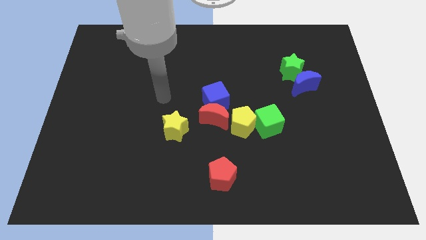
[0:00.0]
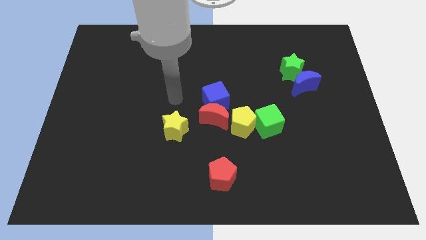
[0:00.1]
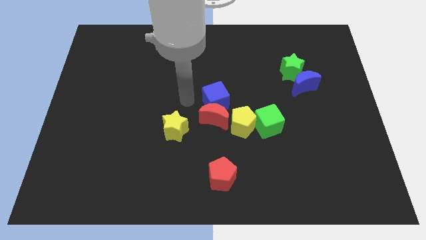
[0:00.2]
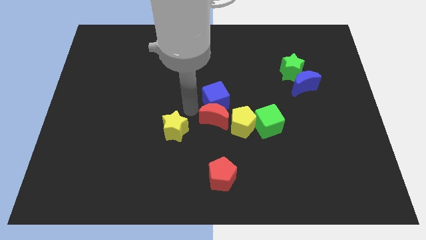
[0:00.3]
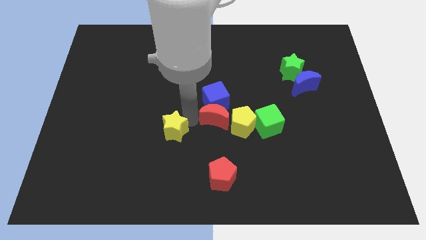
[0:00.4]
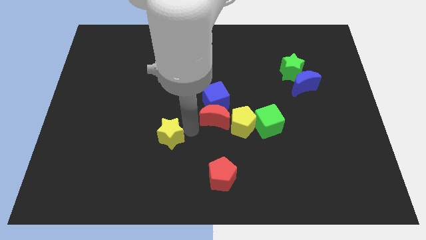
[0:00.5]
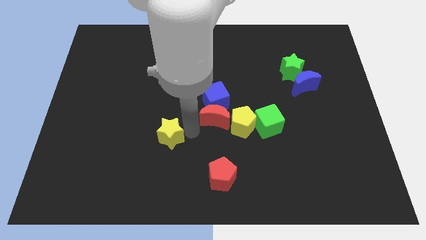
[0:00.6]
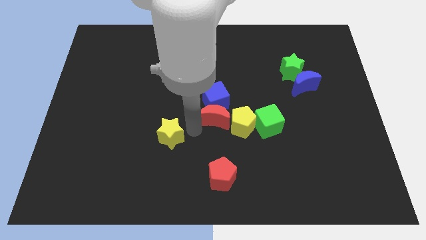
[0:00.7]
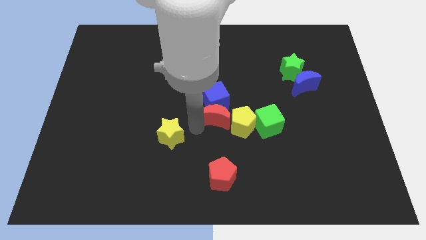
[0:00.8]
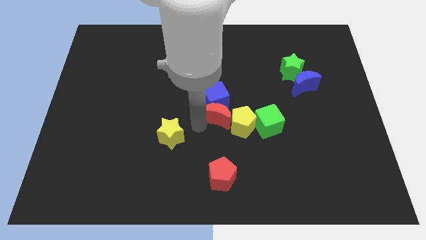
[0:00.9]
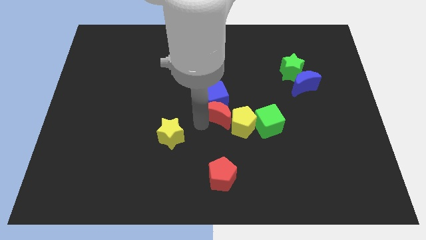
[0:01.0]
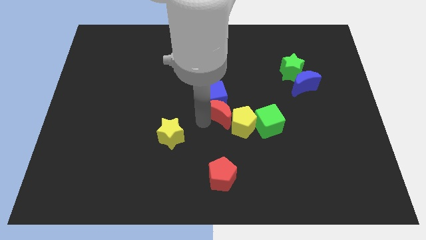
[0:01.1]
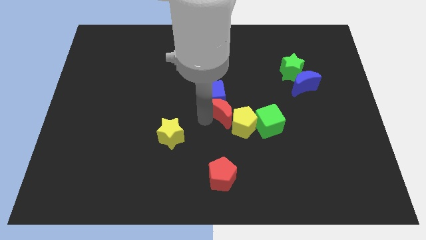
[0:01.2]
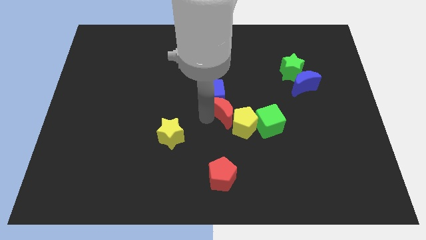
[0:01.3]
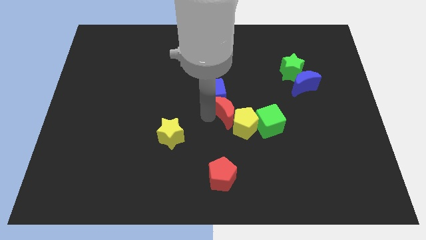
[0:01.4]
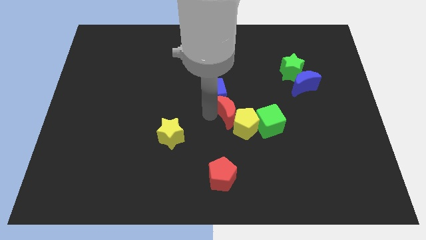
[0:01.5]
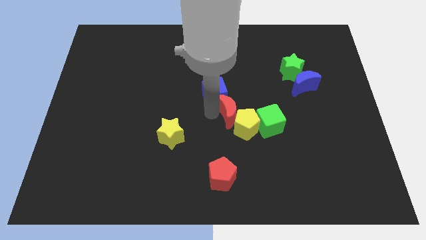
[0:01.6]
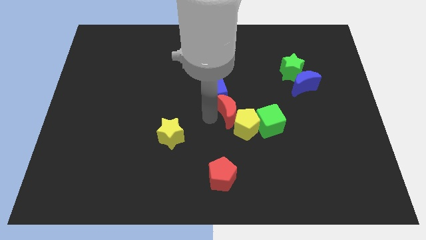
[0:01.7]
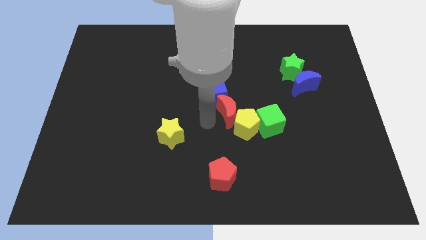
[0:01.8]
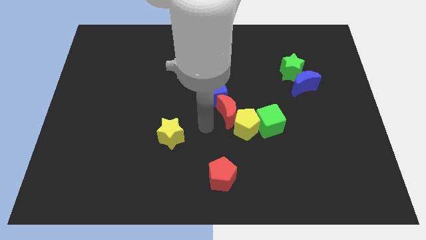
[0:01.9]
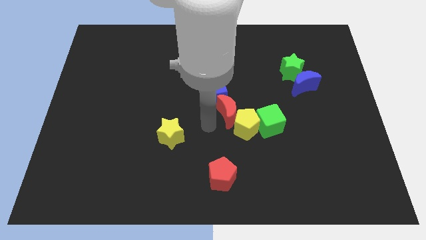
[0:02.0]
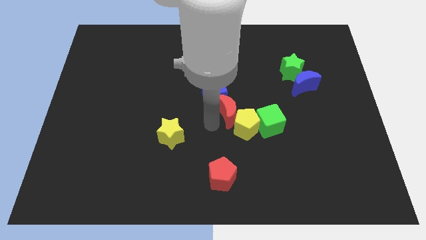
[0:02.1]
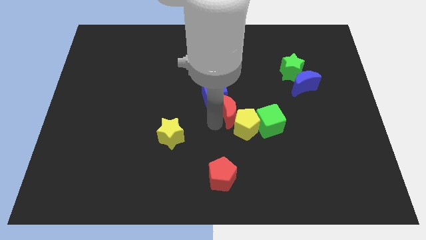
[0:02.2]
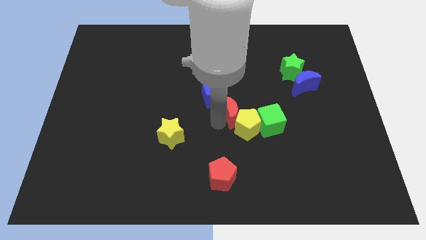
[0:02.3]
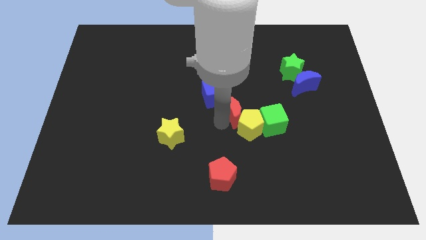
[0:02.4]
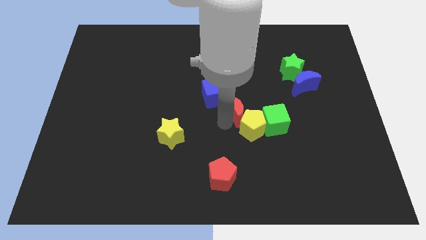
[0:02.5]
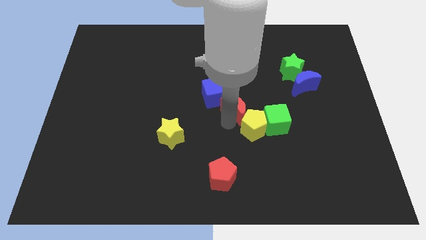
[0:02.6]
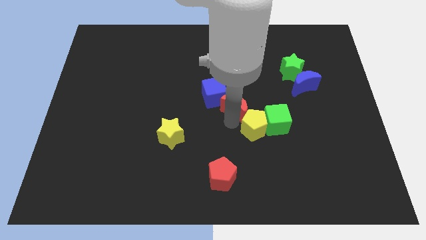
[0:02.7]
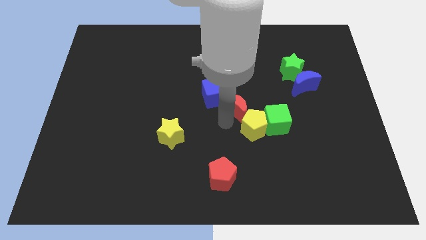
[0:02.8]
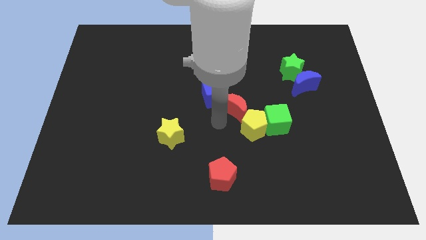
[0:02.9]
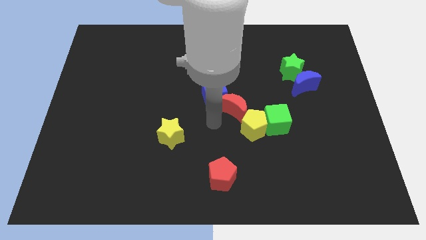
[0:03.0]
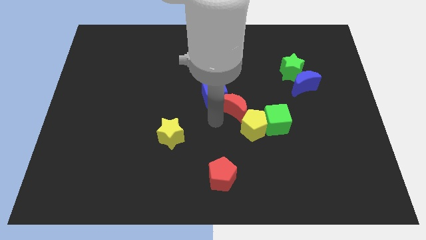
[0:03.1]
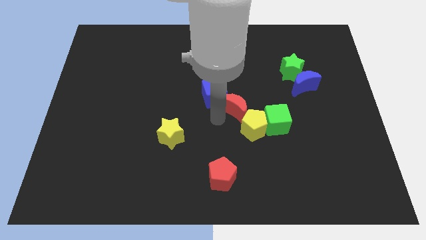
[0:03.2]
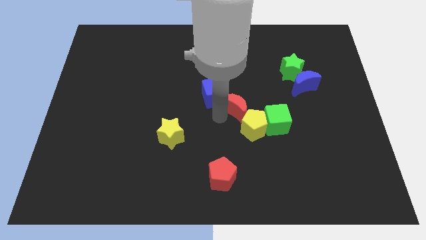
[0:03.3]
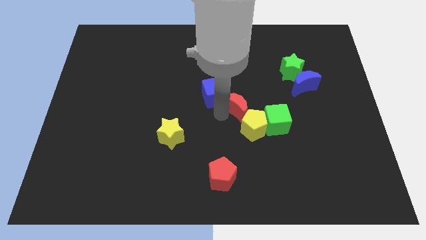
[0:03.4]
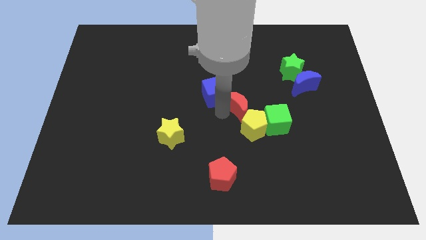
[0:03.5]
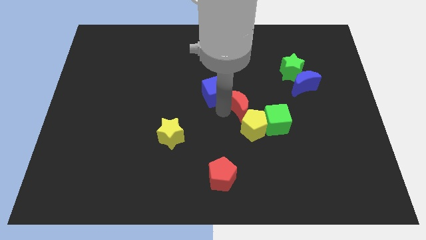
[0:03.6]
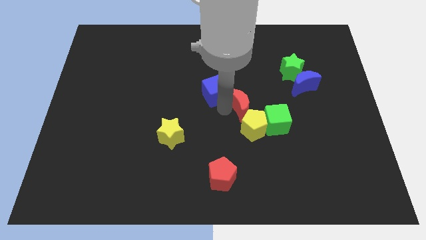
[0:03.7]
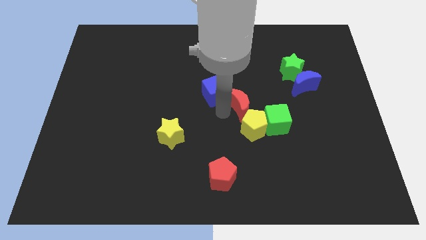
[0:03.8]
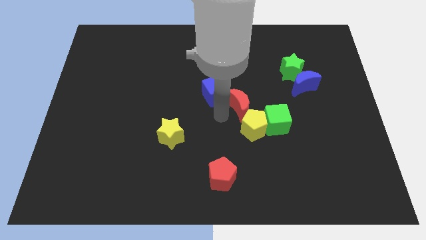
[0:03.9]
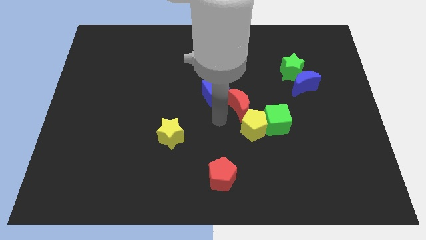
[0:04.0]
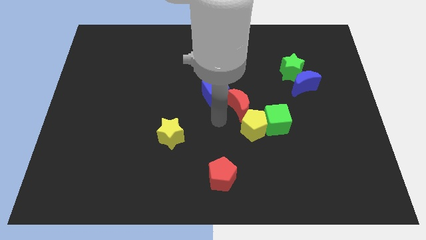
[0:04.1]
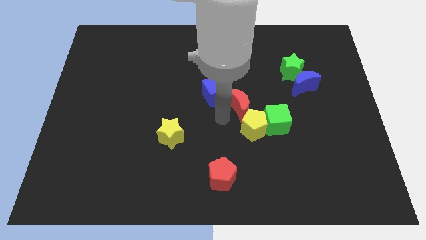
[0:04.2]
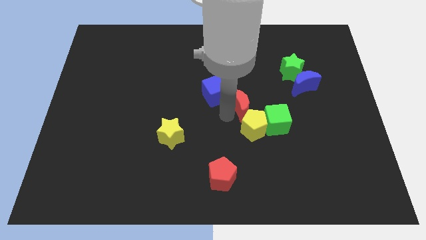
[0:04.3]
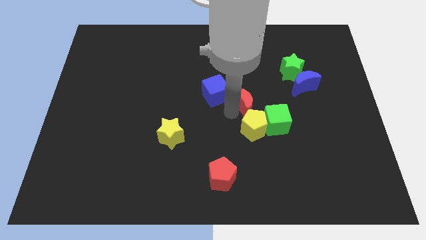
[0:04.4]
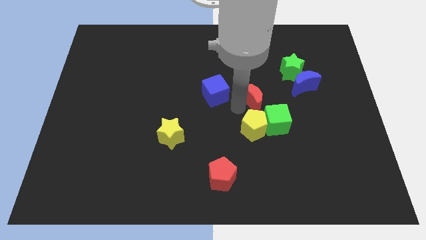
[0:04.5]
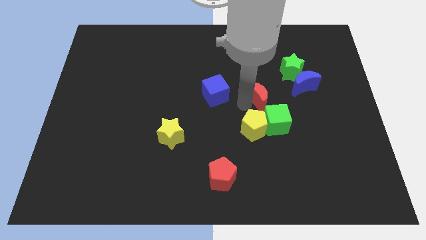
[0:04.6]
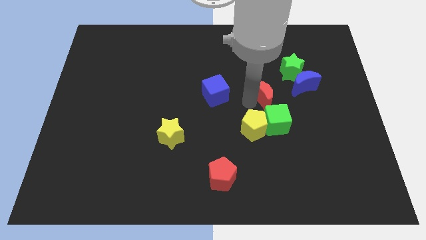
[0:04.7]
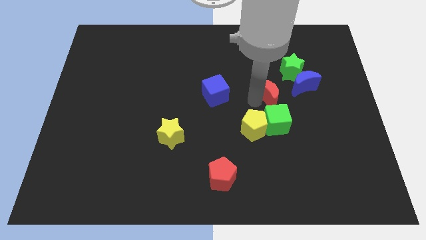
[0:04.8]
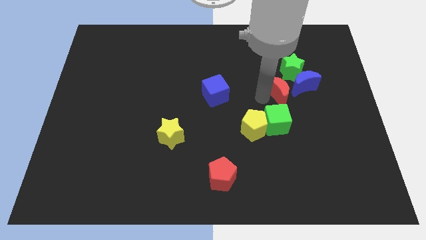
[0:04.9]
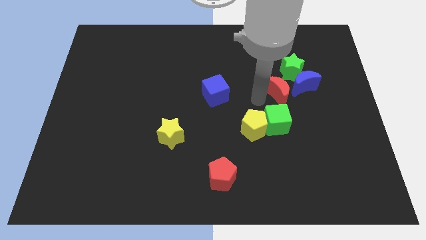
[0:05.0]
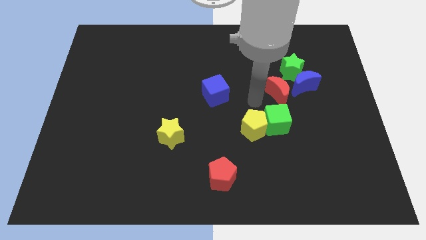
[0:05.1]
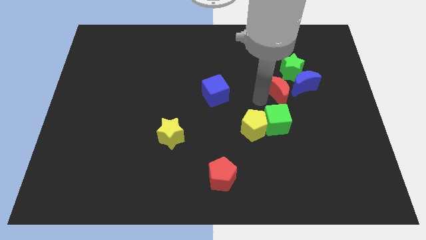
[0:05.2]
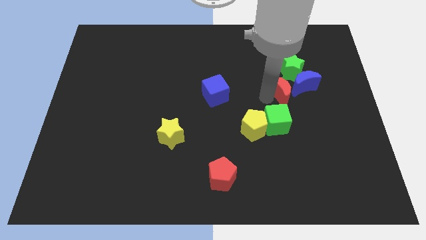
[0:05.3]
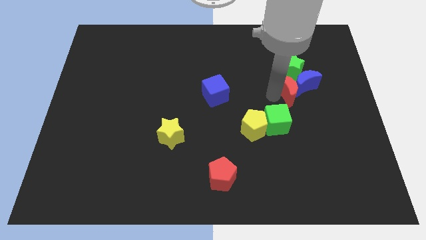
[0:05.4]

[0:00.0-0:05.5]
push the red moon next to the blue moon

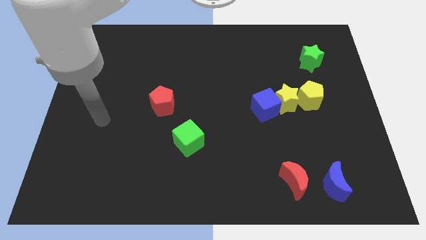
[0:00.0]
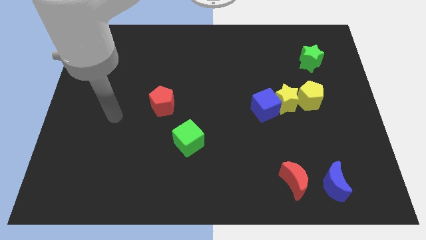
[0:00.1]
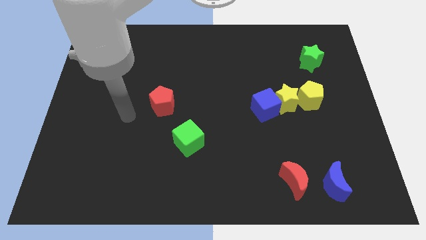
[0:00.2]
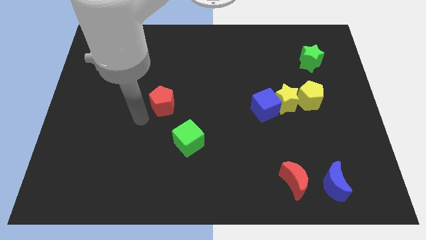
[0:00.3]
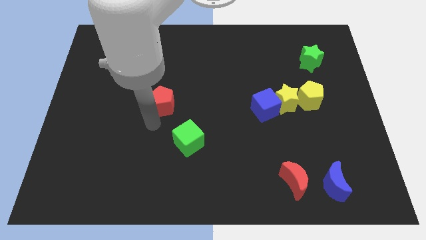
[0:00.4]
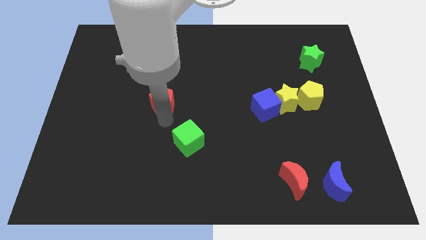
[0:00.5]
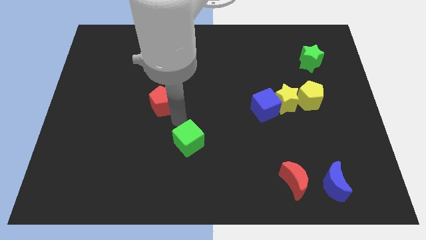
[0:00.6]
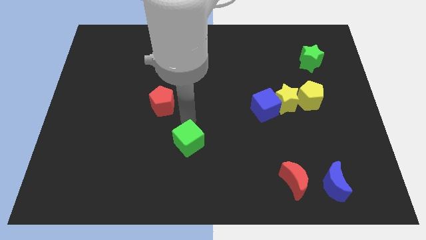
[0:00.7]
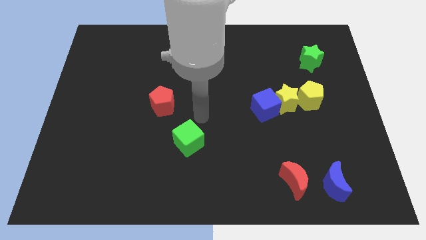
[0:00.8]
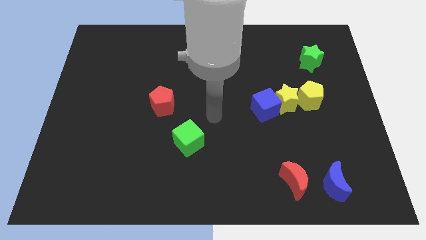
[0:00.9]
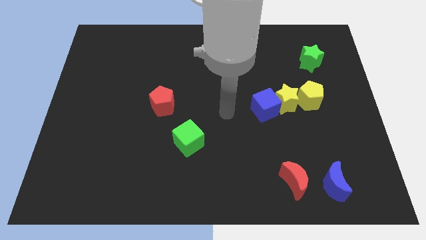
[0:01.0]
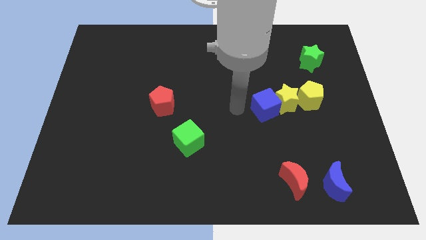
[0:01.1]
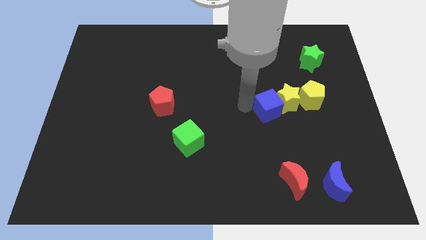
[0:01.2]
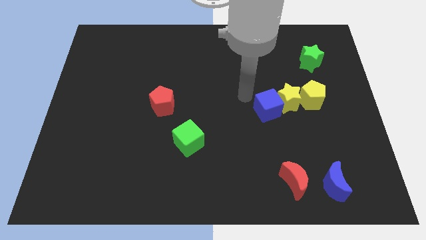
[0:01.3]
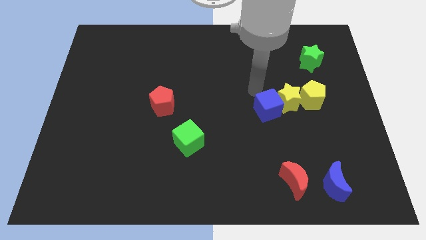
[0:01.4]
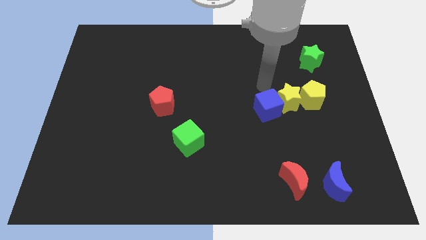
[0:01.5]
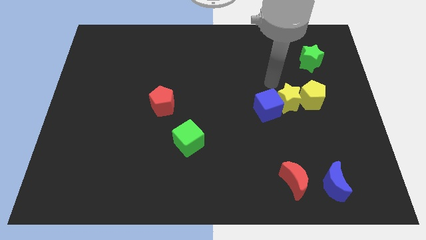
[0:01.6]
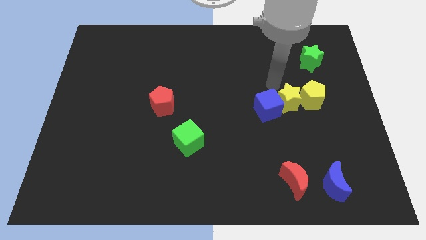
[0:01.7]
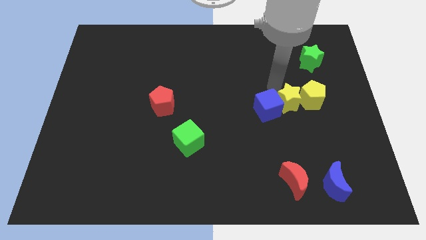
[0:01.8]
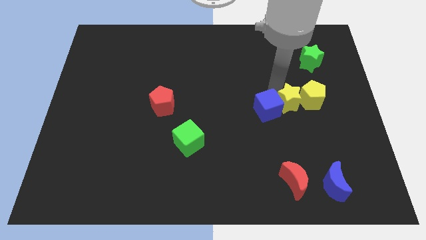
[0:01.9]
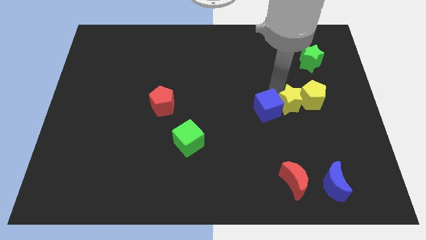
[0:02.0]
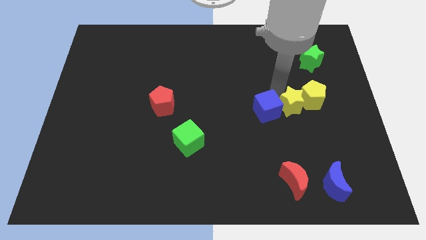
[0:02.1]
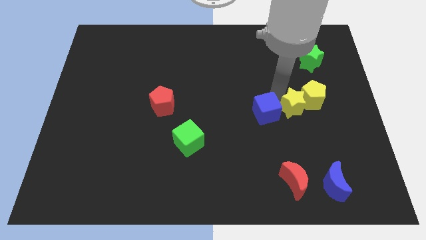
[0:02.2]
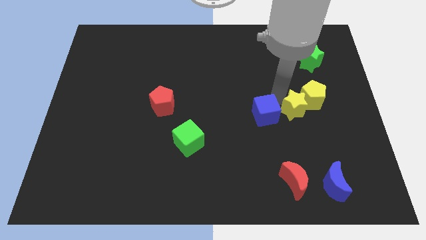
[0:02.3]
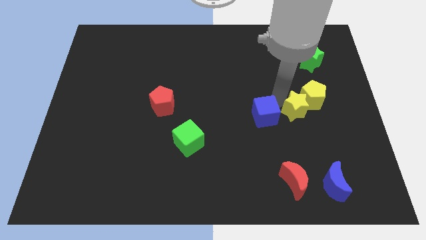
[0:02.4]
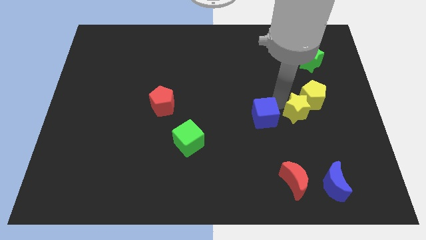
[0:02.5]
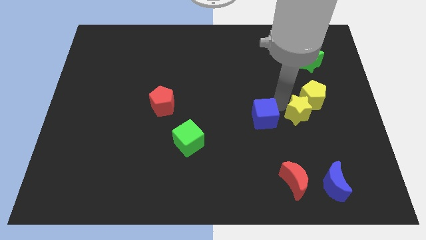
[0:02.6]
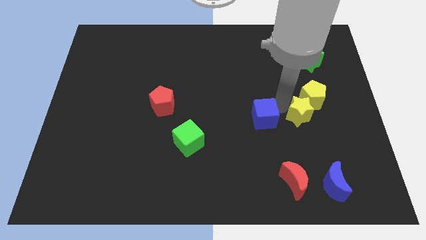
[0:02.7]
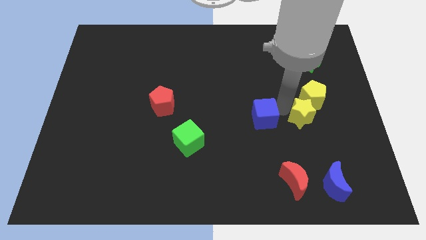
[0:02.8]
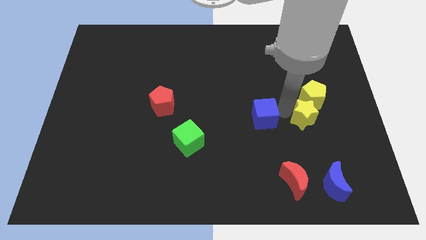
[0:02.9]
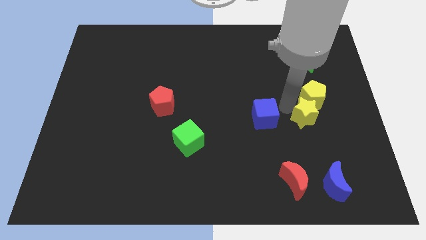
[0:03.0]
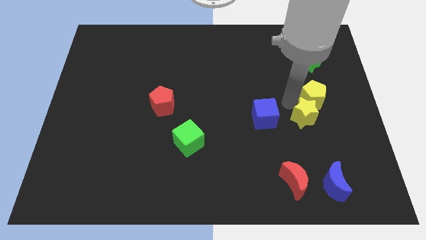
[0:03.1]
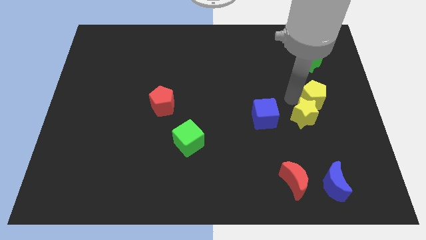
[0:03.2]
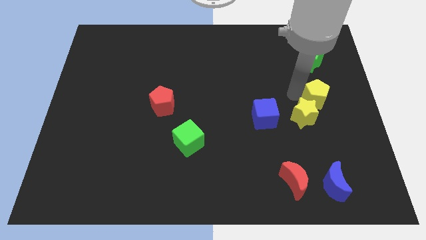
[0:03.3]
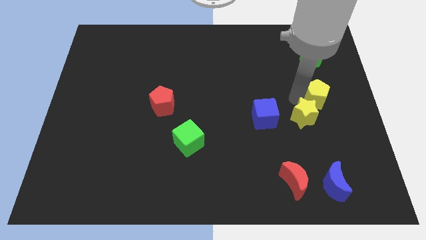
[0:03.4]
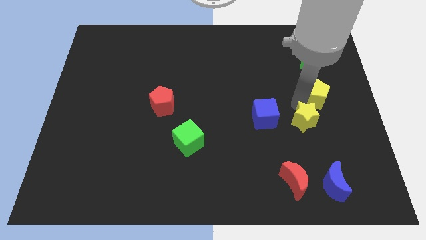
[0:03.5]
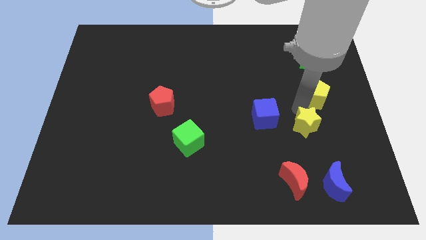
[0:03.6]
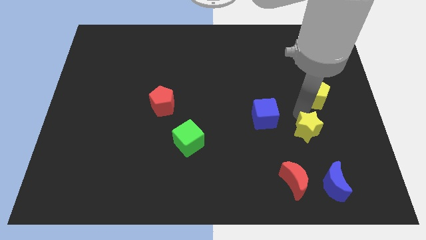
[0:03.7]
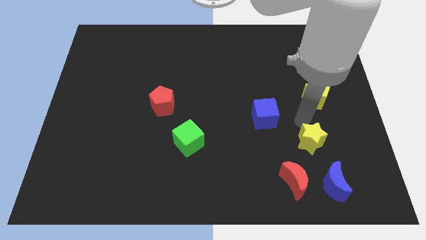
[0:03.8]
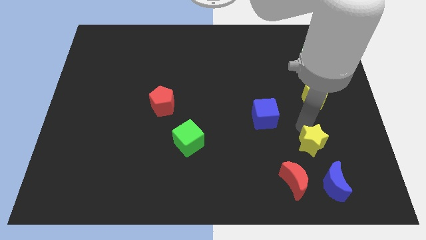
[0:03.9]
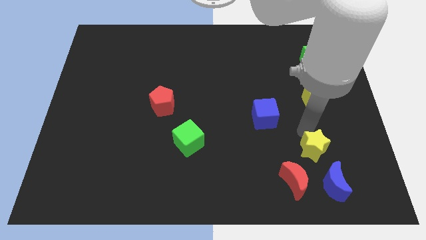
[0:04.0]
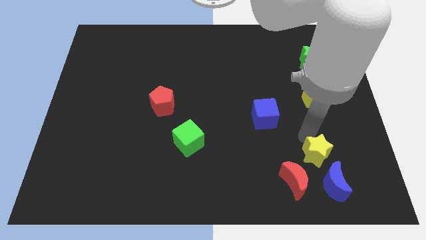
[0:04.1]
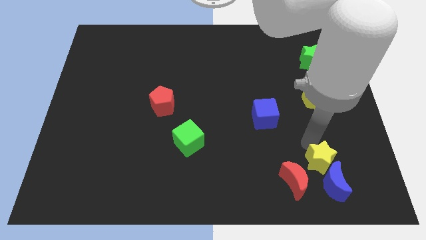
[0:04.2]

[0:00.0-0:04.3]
push the yellow star close to the blue moon
